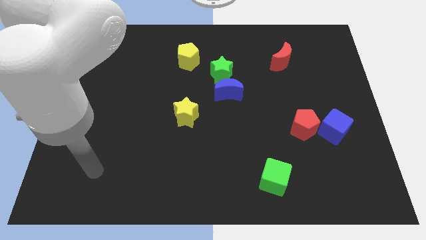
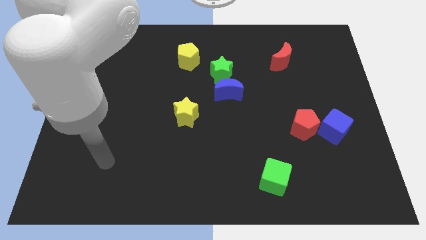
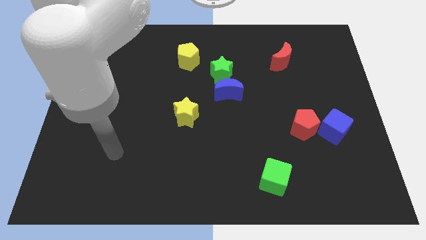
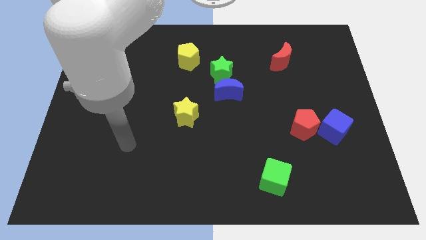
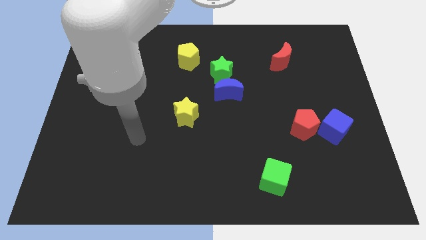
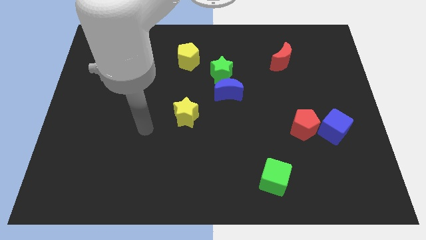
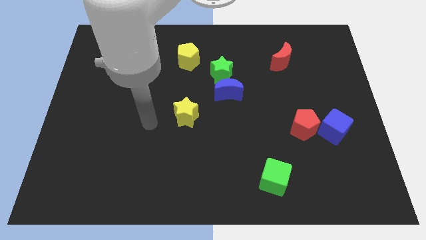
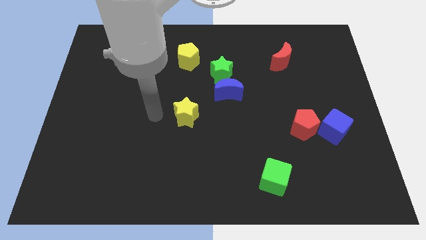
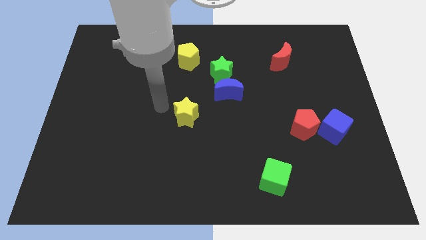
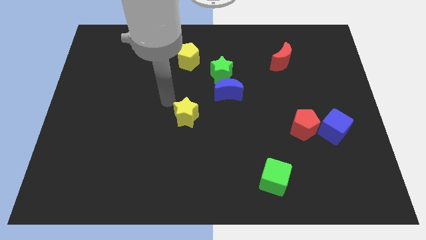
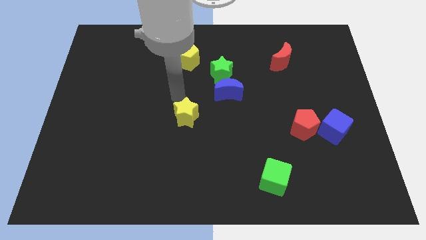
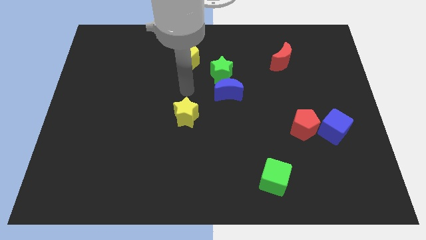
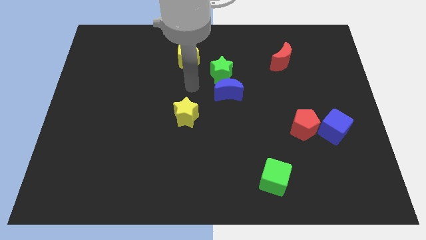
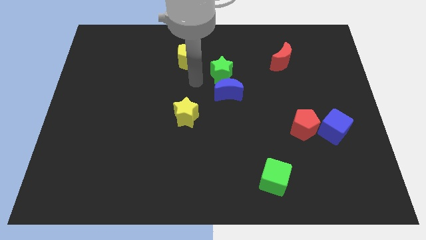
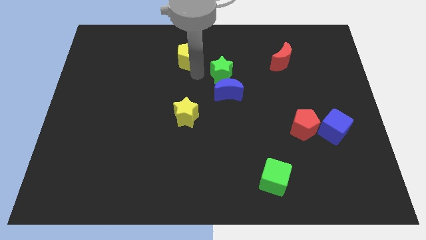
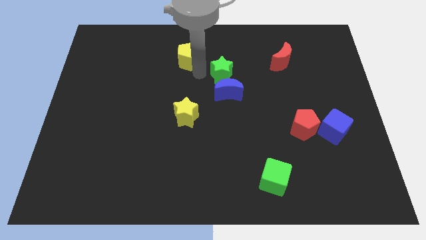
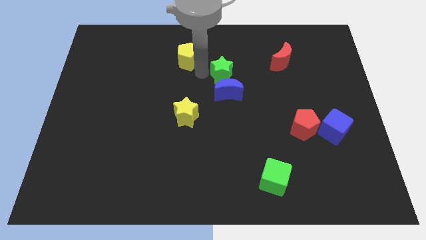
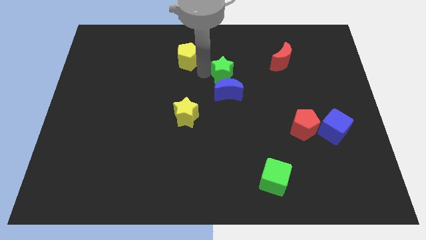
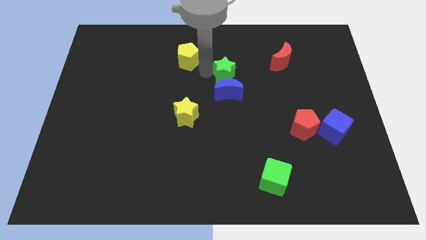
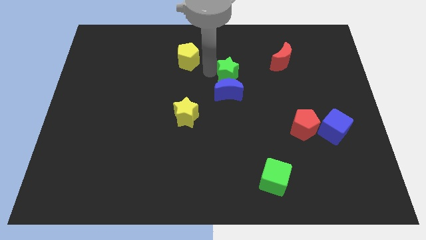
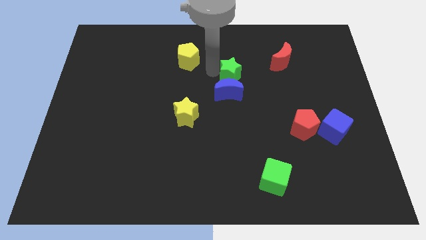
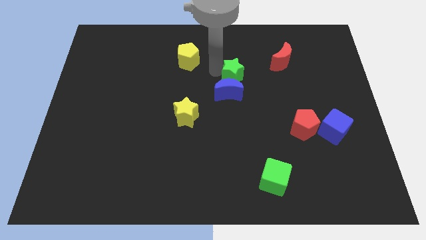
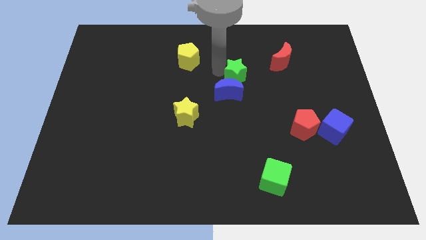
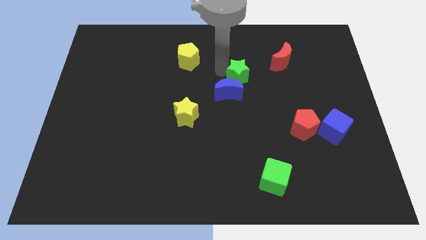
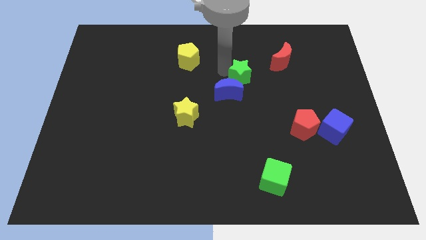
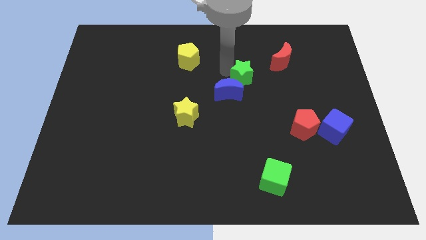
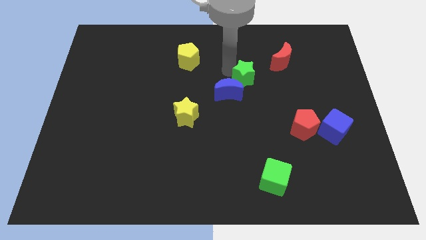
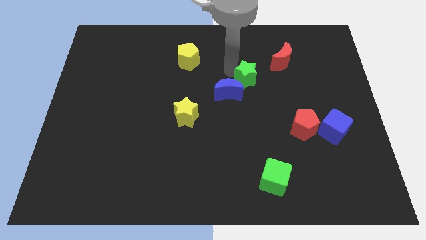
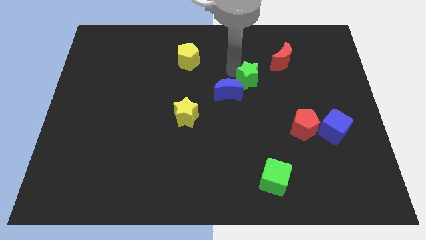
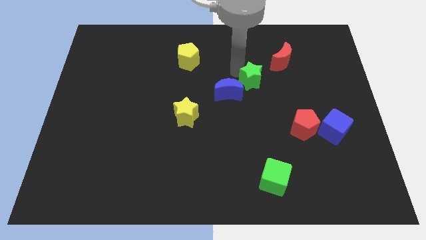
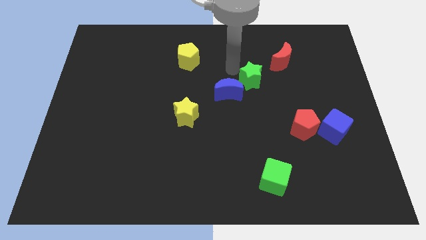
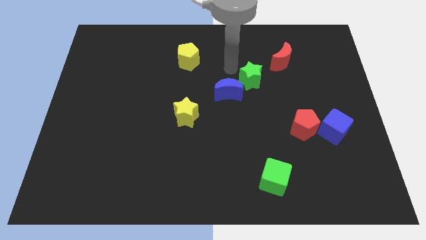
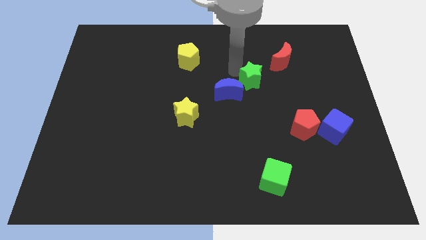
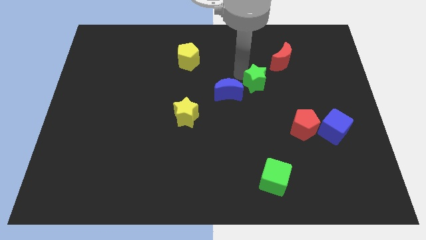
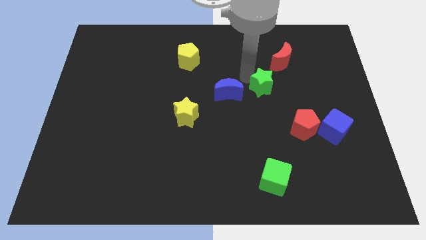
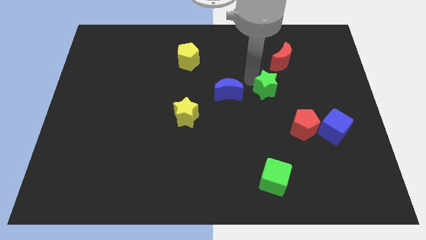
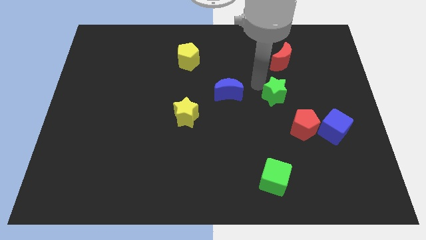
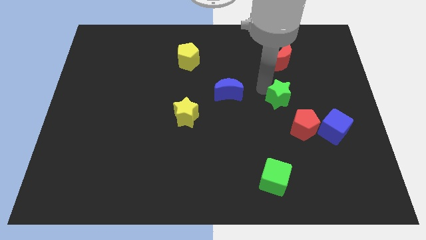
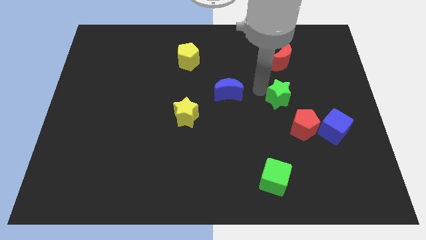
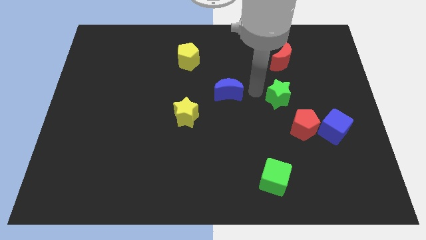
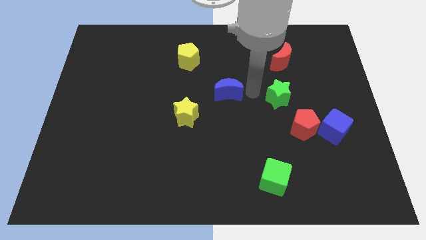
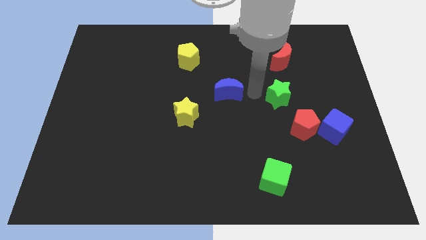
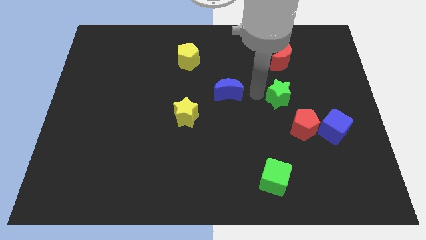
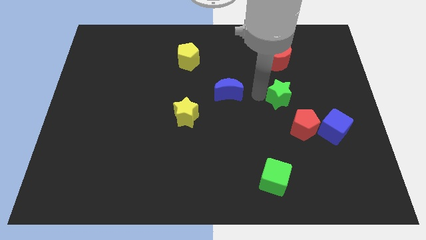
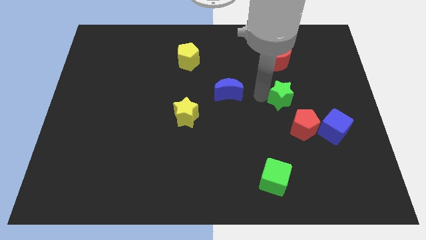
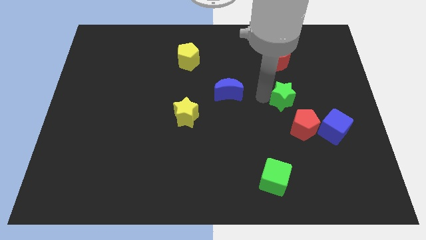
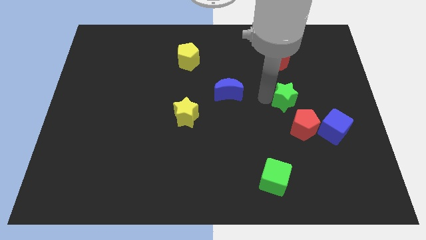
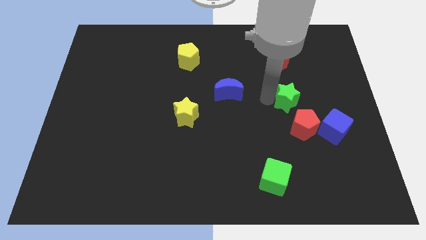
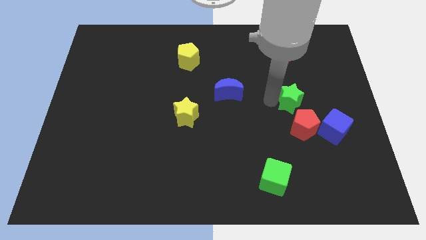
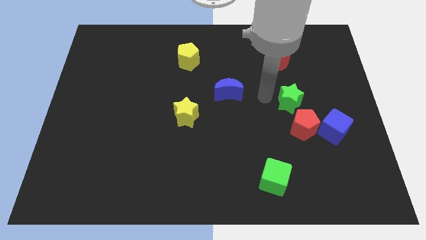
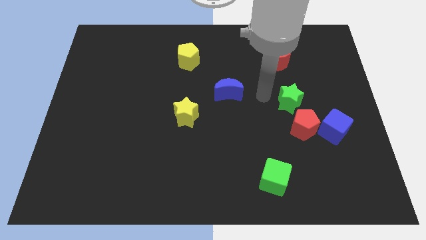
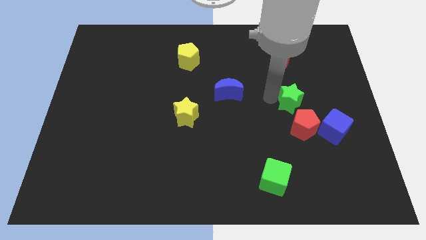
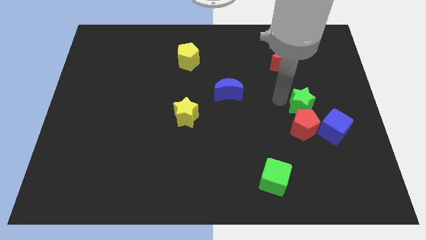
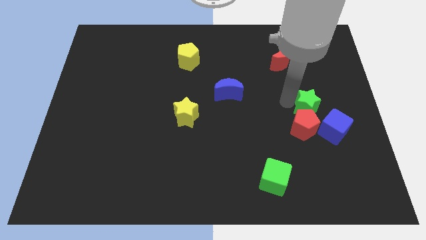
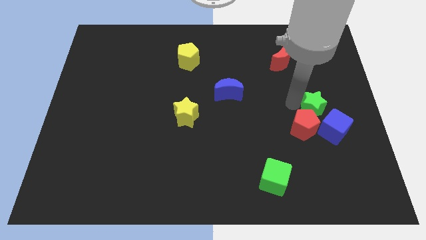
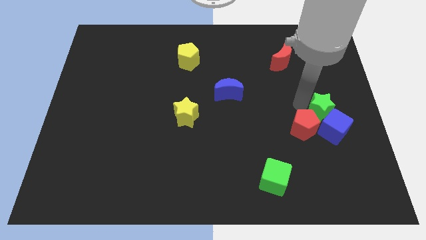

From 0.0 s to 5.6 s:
move the green star to the blue cube

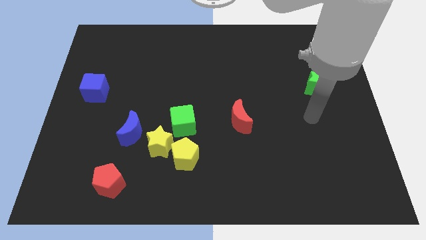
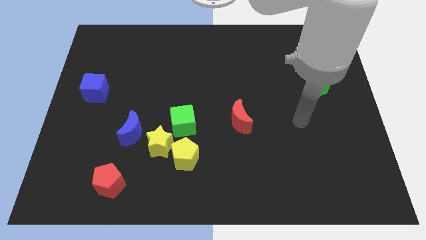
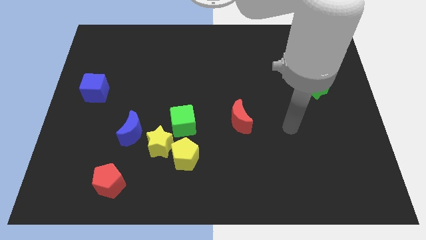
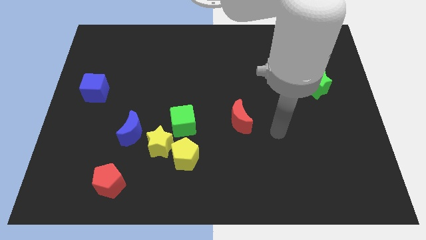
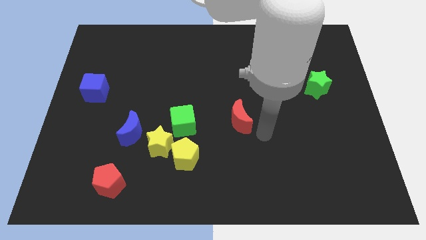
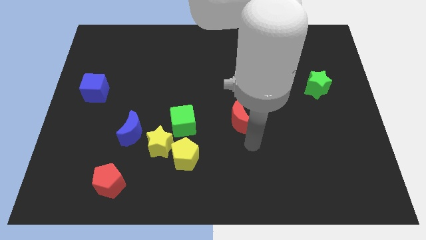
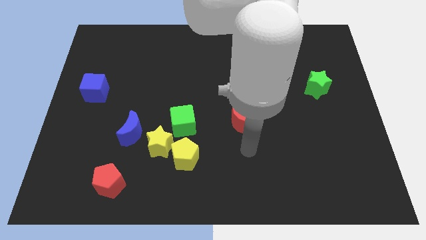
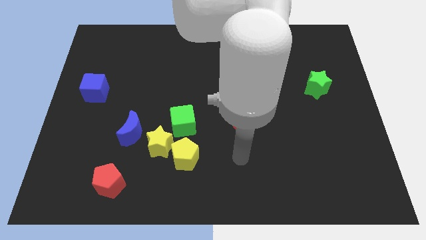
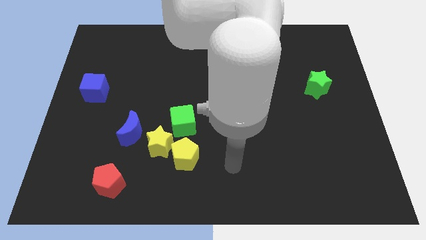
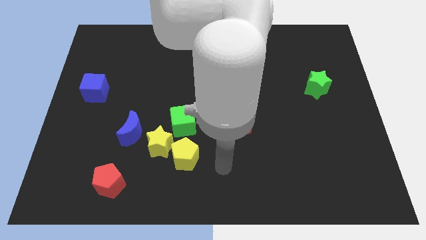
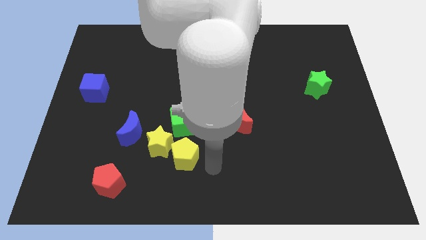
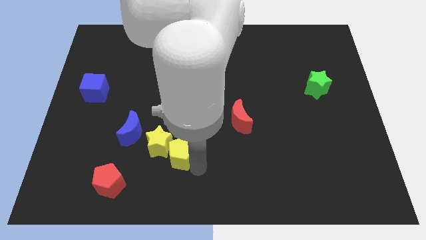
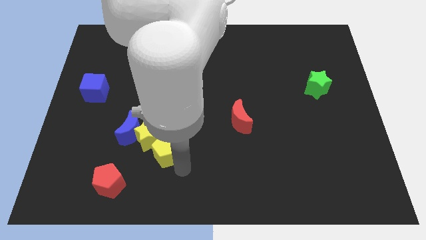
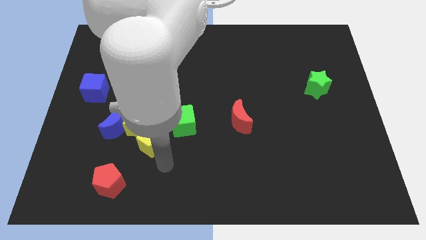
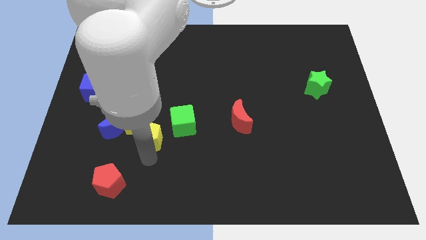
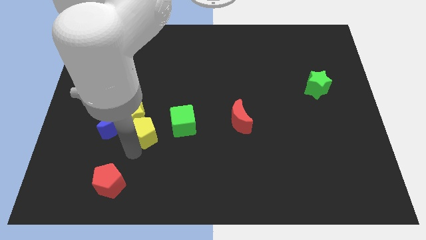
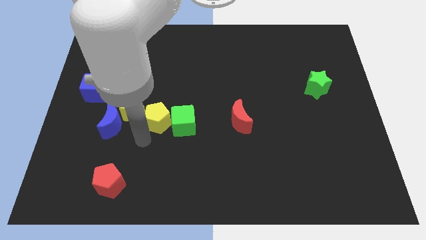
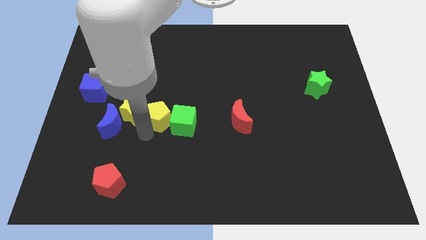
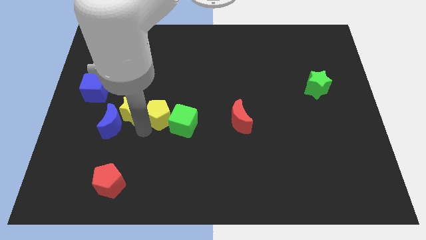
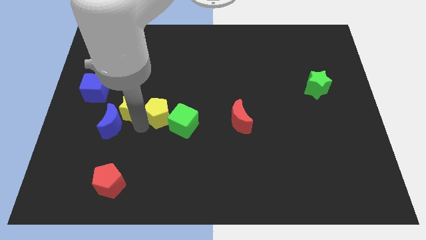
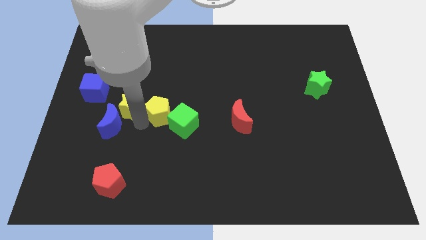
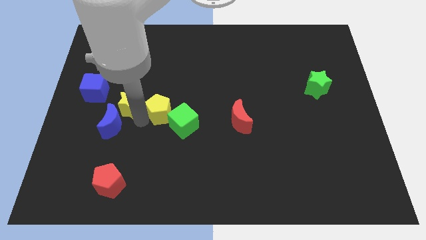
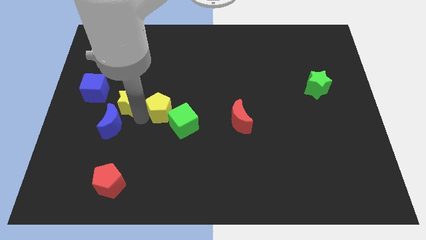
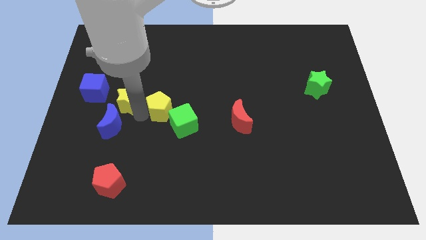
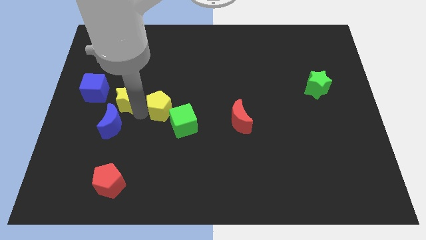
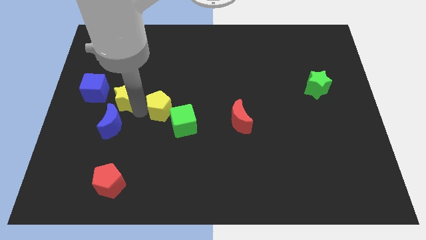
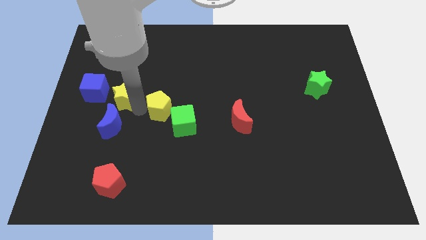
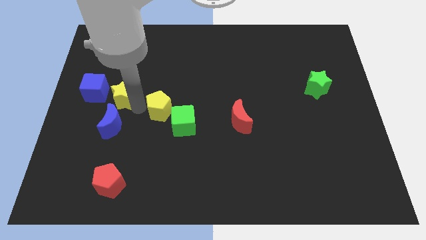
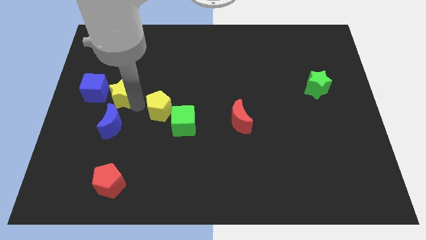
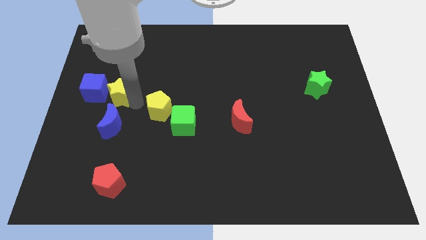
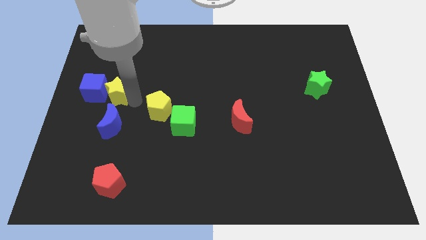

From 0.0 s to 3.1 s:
push the yellow star to the blue cube
